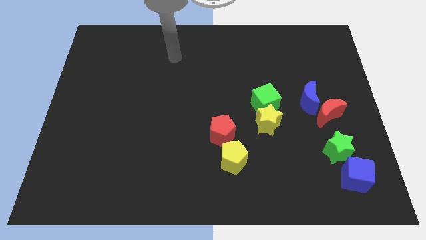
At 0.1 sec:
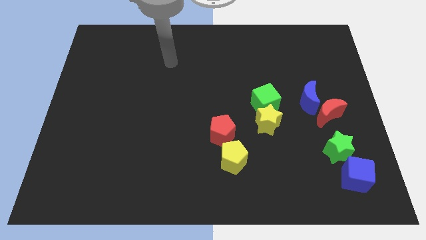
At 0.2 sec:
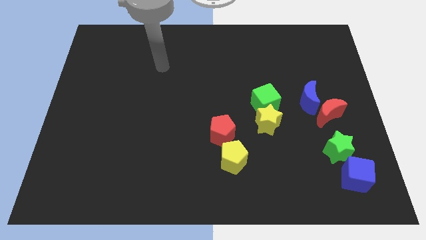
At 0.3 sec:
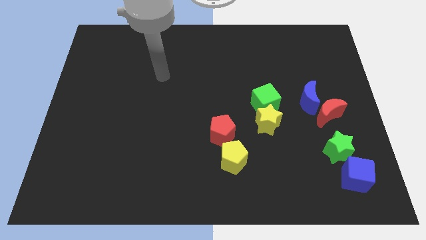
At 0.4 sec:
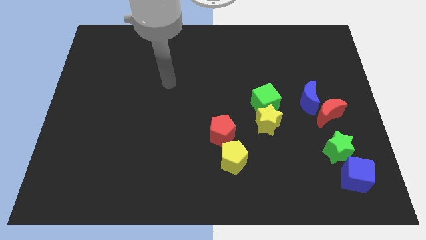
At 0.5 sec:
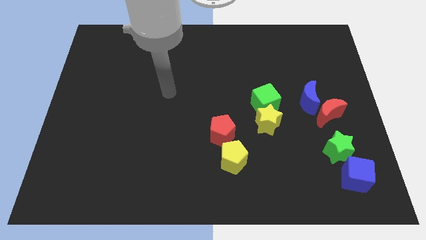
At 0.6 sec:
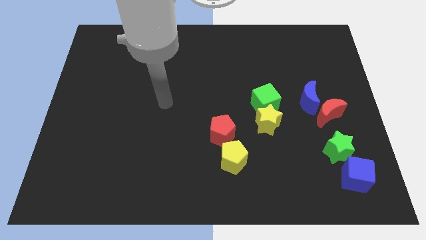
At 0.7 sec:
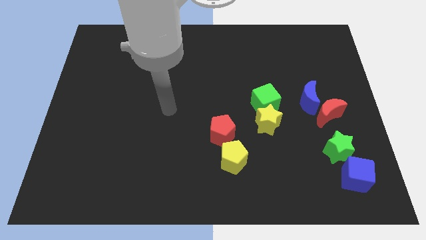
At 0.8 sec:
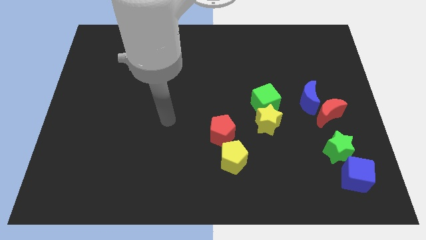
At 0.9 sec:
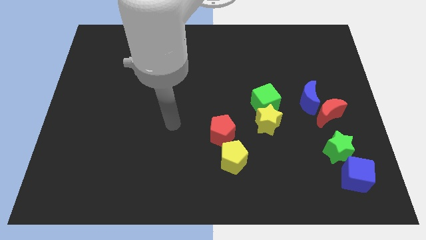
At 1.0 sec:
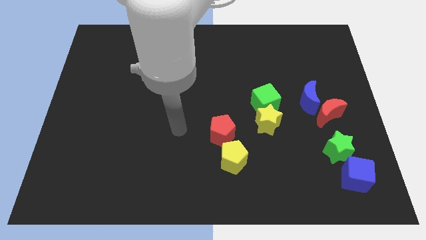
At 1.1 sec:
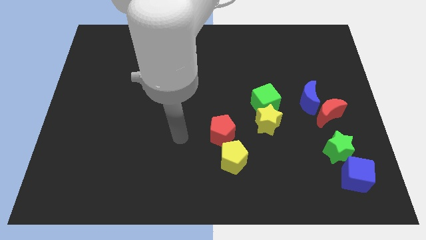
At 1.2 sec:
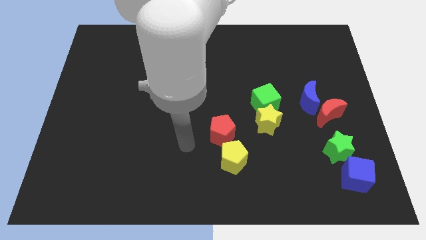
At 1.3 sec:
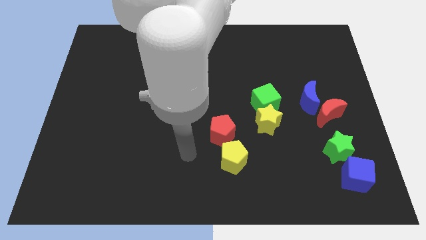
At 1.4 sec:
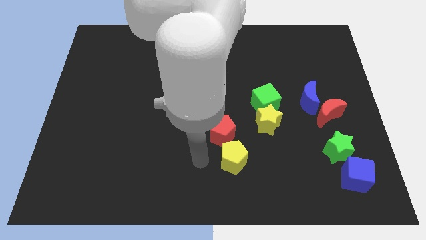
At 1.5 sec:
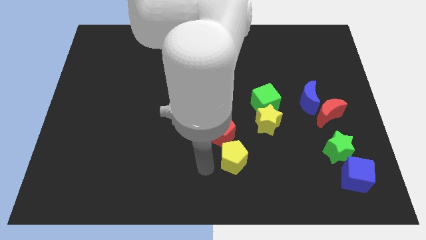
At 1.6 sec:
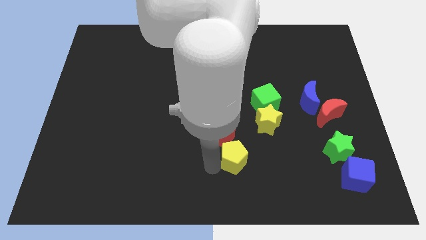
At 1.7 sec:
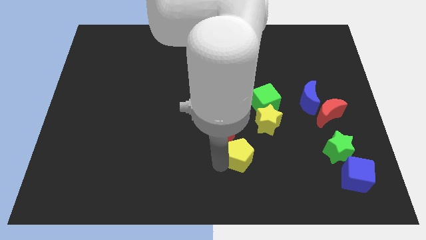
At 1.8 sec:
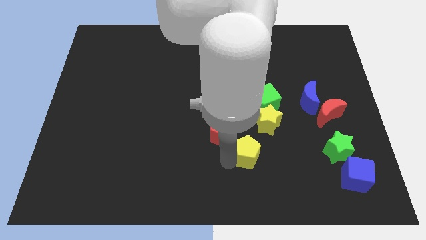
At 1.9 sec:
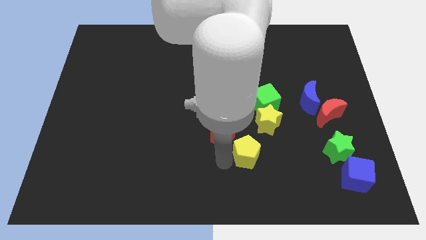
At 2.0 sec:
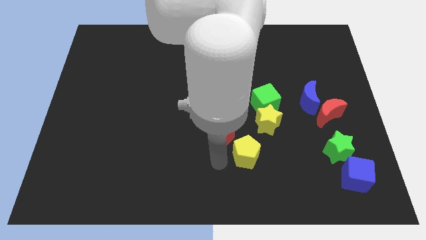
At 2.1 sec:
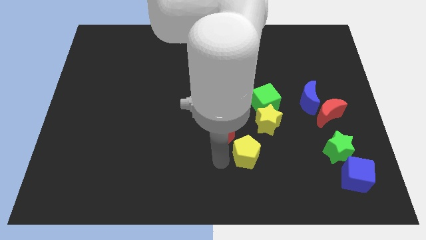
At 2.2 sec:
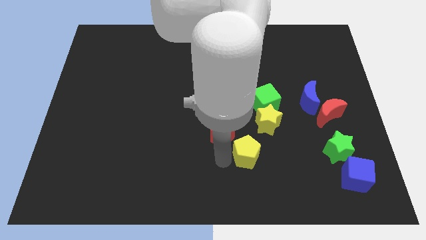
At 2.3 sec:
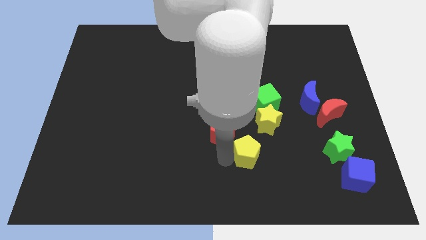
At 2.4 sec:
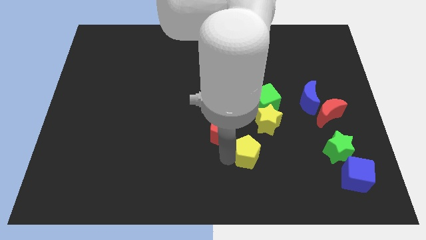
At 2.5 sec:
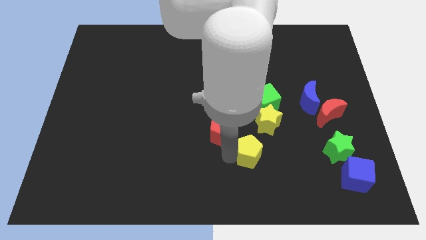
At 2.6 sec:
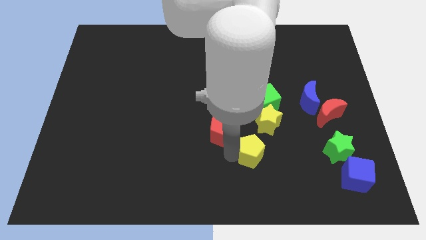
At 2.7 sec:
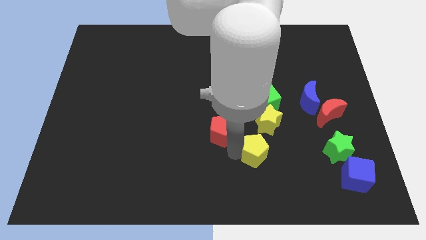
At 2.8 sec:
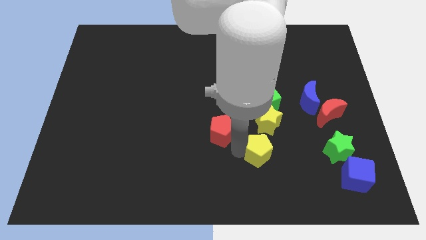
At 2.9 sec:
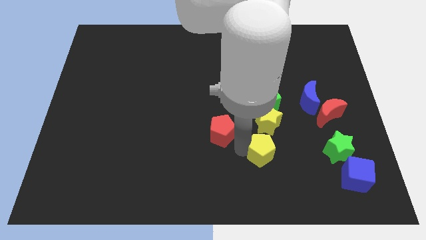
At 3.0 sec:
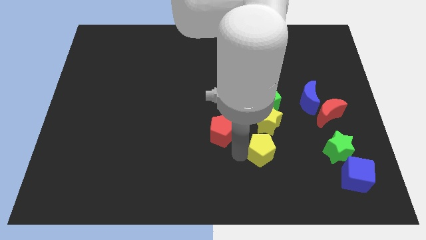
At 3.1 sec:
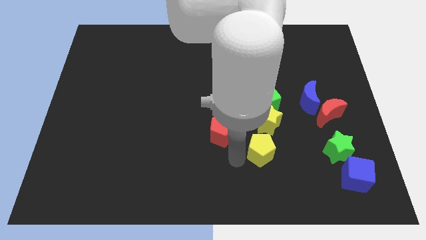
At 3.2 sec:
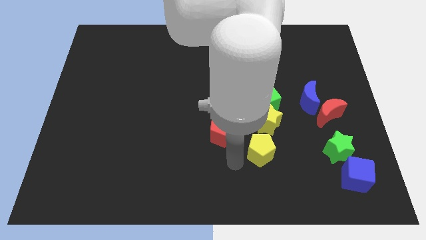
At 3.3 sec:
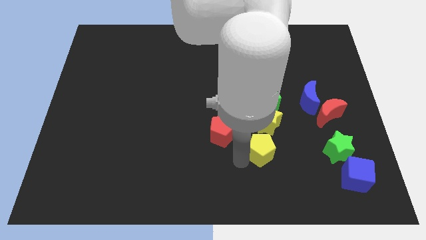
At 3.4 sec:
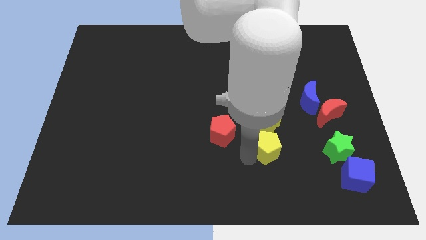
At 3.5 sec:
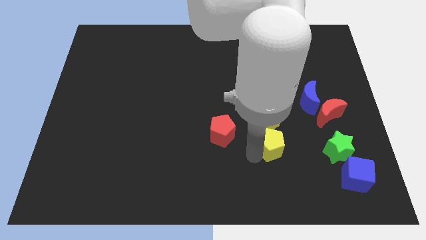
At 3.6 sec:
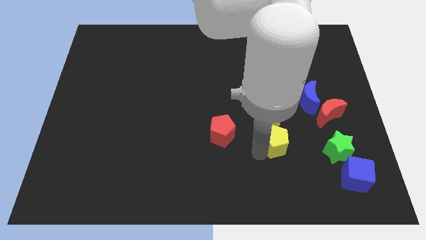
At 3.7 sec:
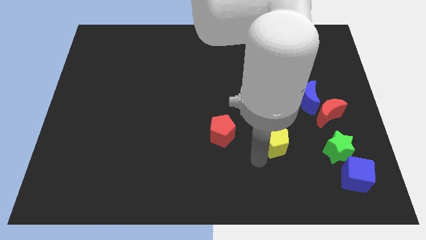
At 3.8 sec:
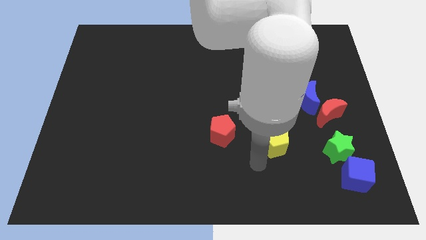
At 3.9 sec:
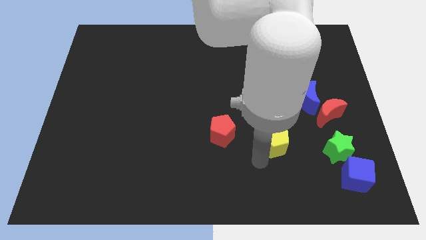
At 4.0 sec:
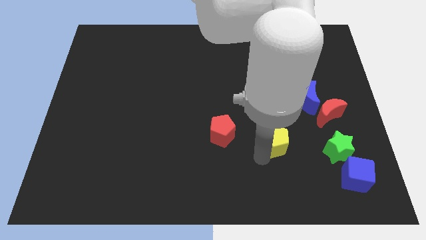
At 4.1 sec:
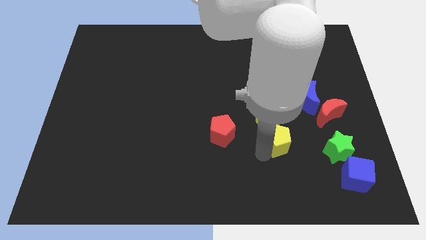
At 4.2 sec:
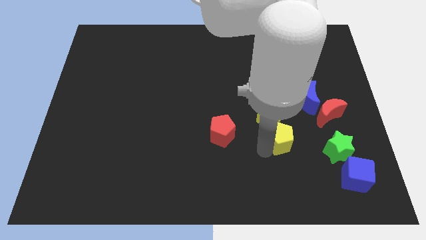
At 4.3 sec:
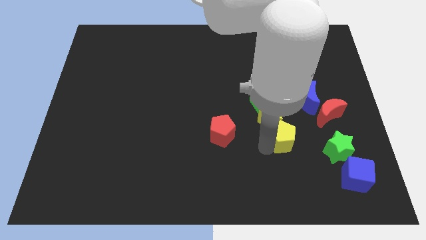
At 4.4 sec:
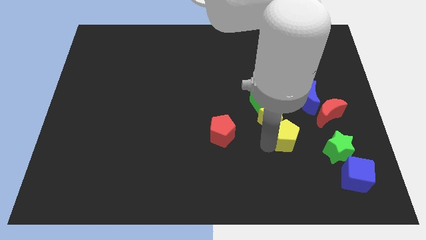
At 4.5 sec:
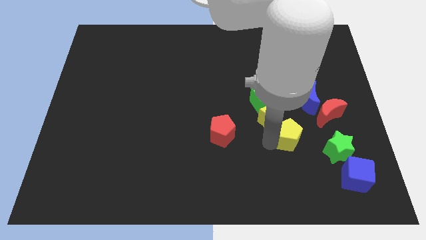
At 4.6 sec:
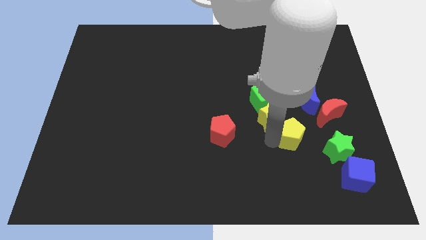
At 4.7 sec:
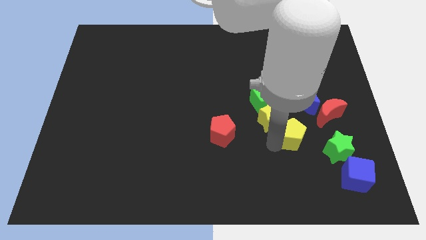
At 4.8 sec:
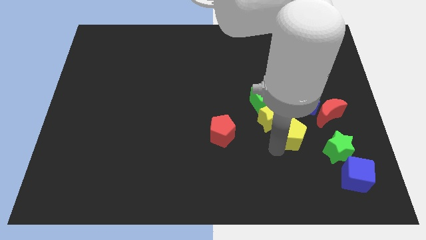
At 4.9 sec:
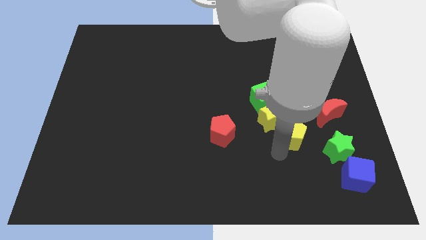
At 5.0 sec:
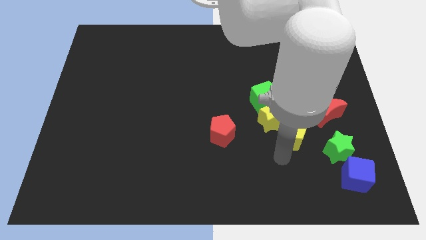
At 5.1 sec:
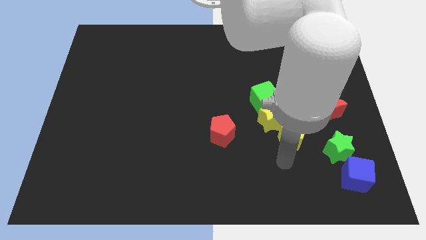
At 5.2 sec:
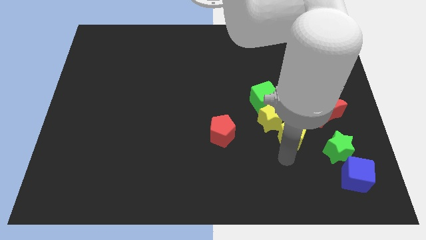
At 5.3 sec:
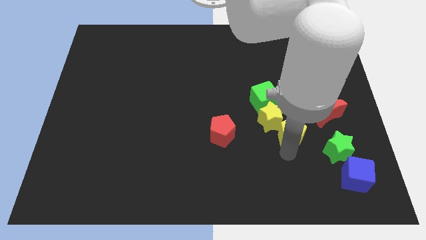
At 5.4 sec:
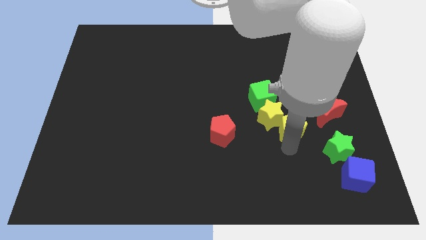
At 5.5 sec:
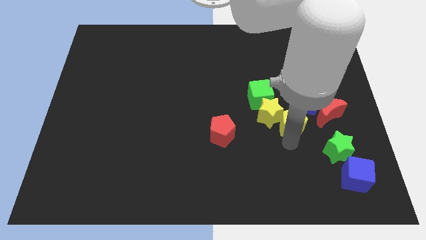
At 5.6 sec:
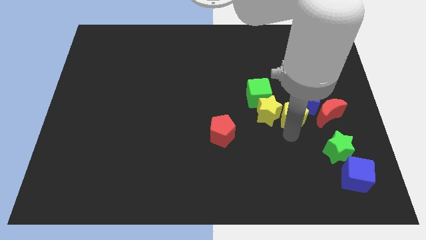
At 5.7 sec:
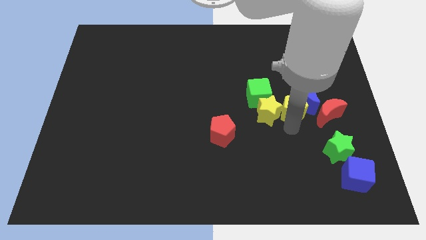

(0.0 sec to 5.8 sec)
move the yellow pentagon next to the blue moon

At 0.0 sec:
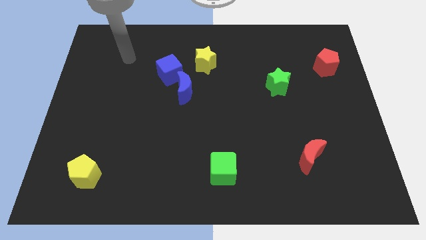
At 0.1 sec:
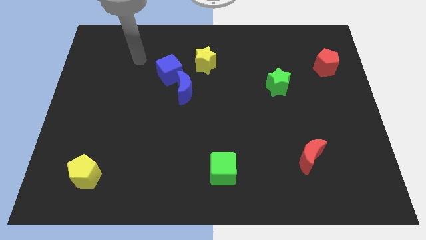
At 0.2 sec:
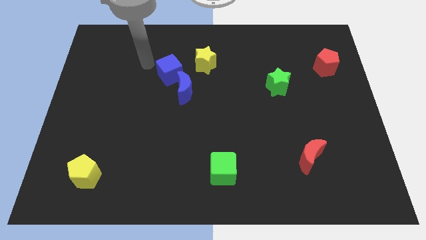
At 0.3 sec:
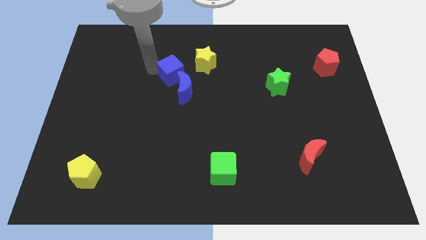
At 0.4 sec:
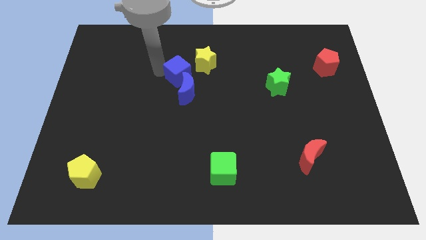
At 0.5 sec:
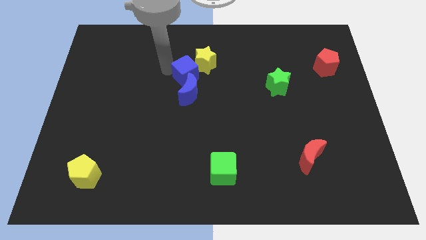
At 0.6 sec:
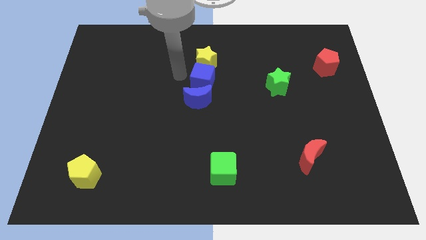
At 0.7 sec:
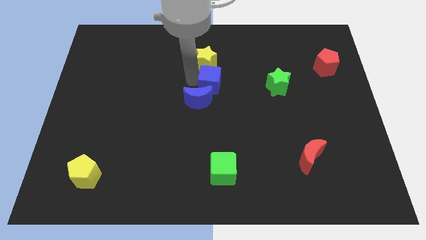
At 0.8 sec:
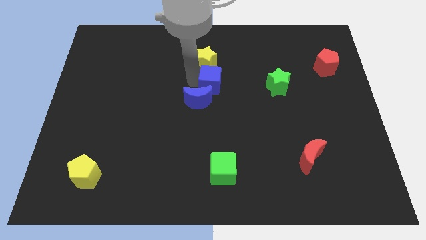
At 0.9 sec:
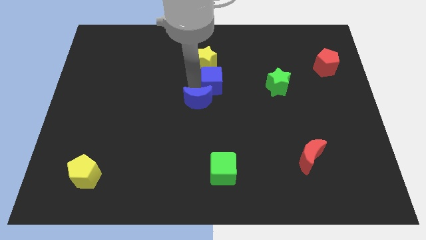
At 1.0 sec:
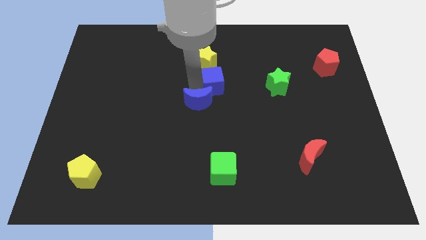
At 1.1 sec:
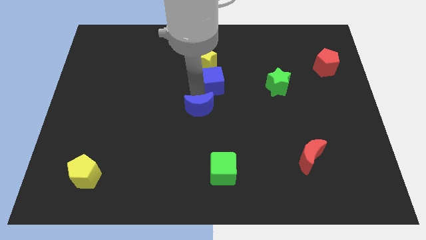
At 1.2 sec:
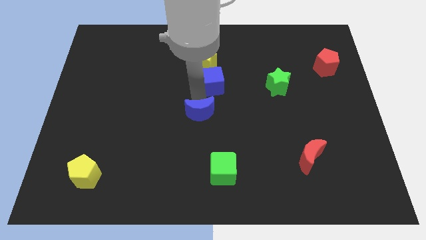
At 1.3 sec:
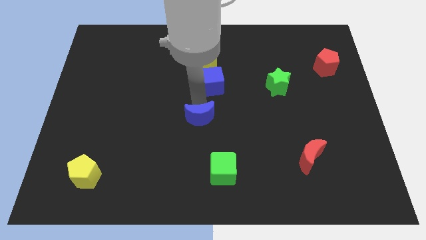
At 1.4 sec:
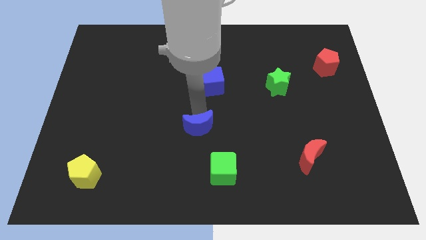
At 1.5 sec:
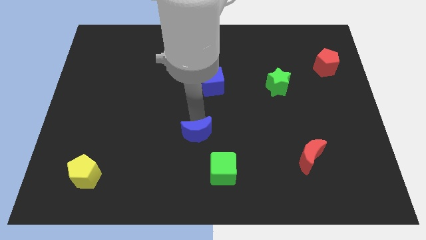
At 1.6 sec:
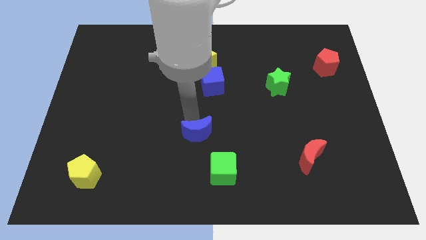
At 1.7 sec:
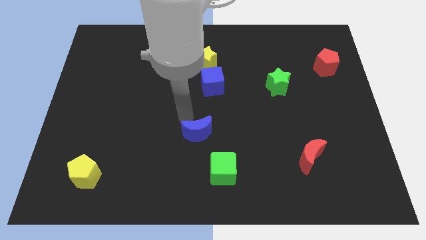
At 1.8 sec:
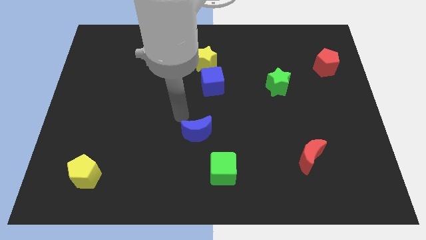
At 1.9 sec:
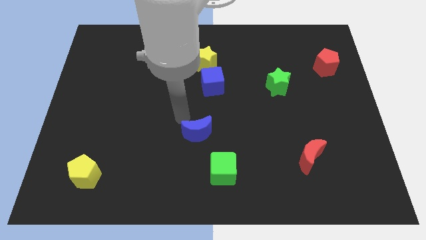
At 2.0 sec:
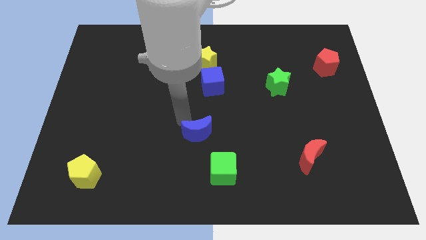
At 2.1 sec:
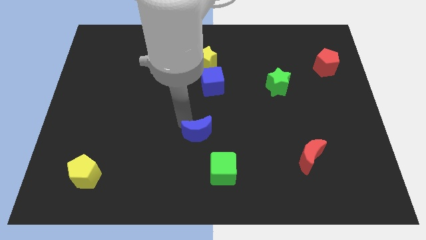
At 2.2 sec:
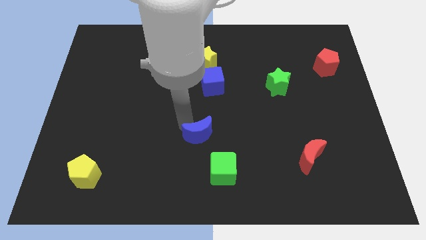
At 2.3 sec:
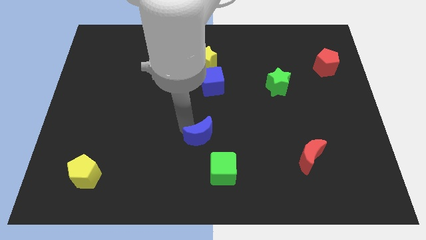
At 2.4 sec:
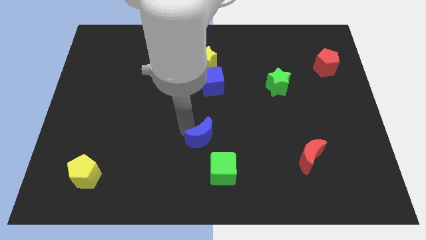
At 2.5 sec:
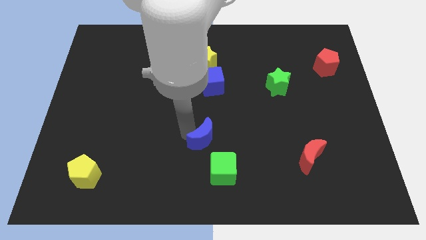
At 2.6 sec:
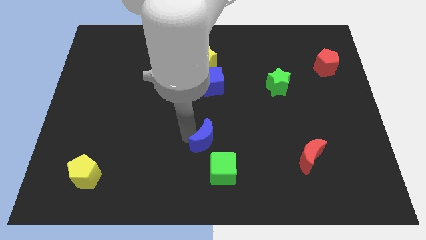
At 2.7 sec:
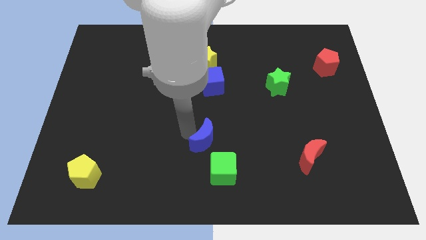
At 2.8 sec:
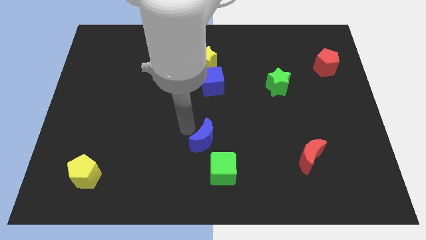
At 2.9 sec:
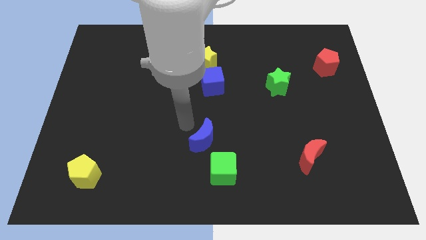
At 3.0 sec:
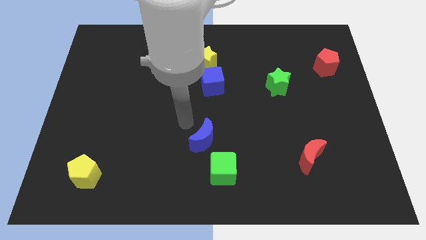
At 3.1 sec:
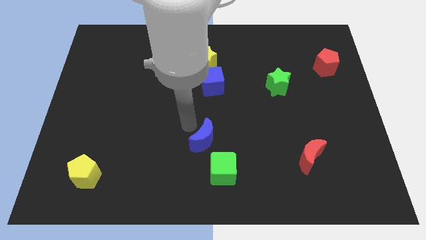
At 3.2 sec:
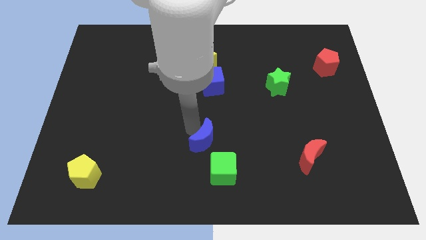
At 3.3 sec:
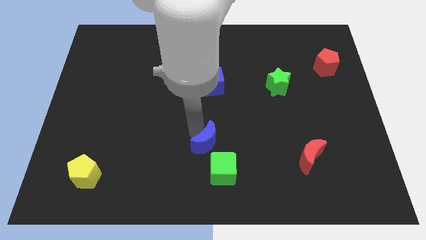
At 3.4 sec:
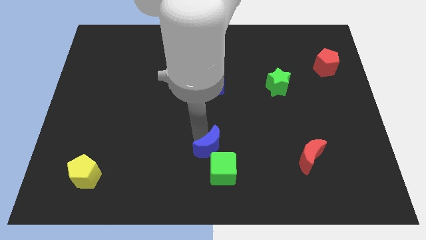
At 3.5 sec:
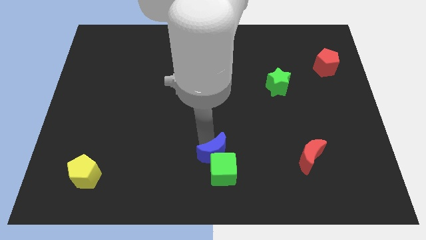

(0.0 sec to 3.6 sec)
put the blue moon close to the green cube
